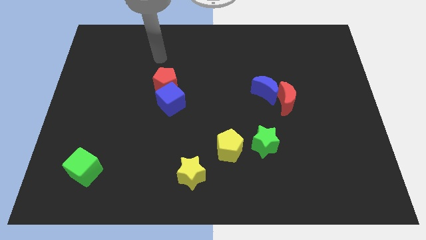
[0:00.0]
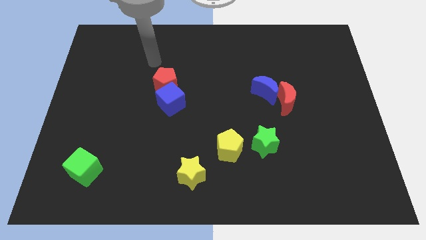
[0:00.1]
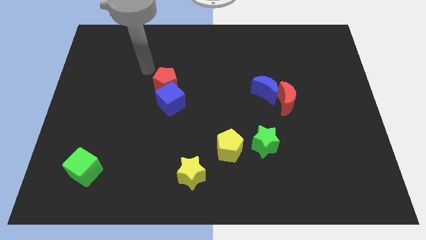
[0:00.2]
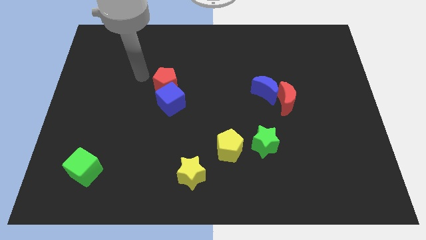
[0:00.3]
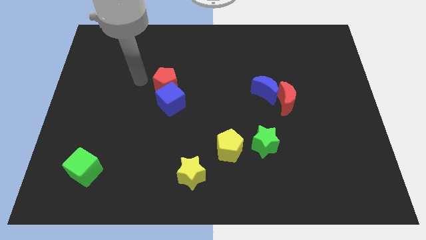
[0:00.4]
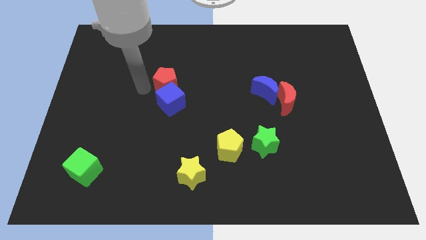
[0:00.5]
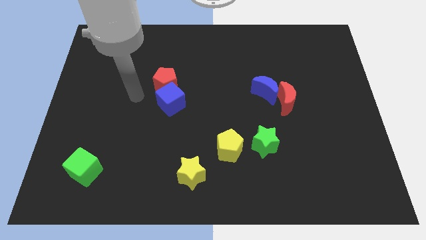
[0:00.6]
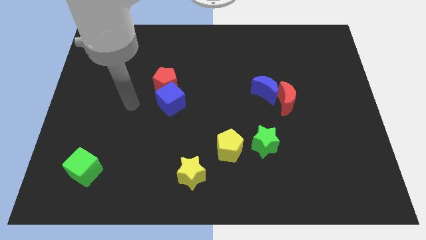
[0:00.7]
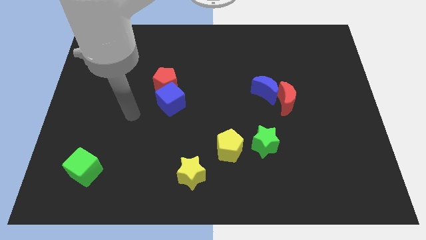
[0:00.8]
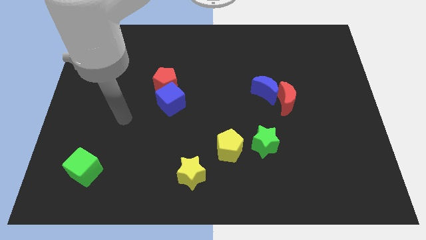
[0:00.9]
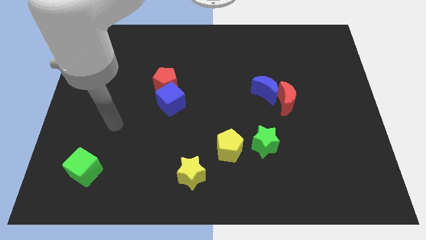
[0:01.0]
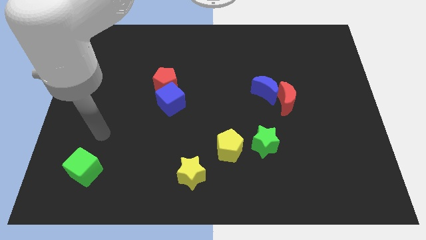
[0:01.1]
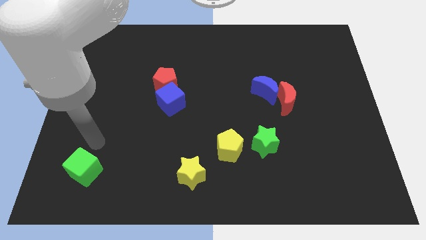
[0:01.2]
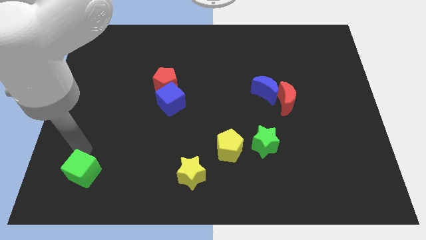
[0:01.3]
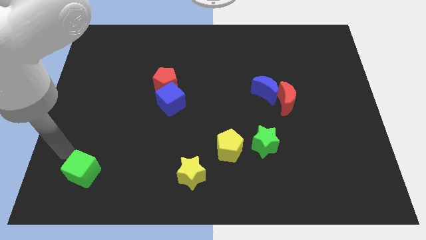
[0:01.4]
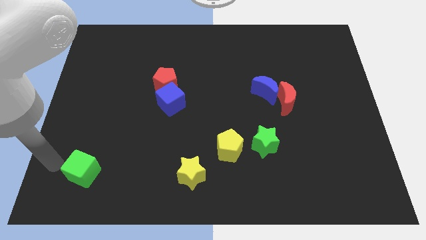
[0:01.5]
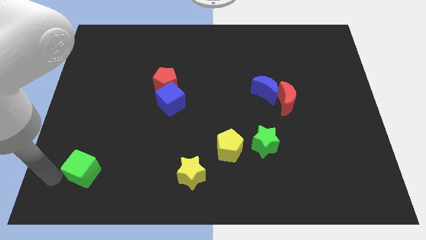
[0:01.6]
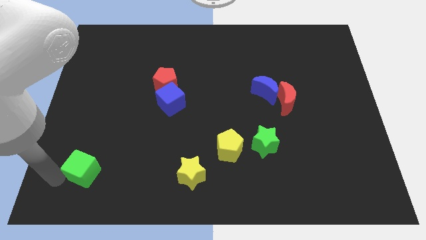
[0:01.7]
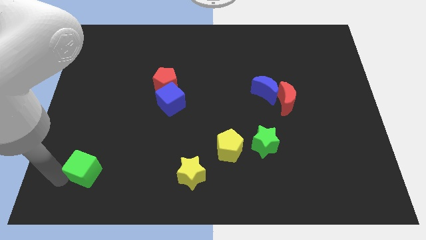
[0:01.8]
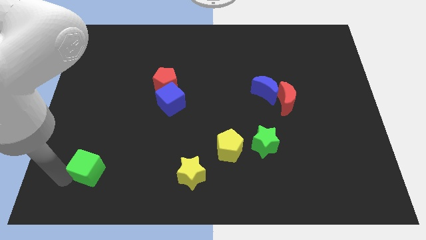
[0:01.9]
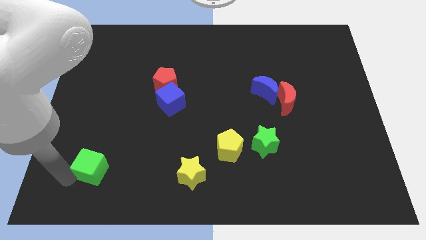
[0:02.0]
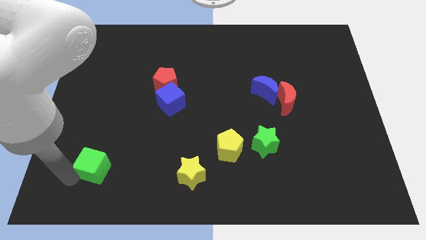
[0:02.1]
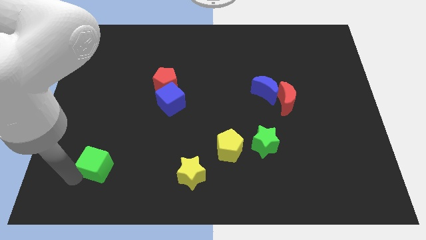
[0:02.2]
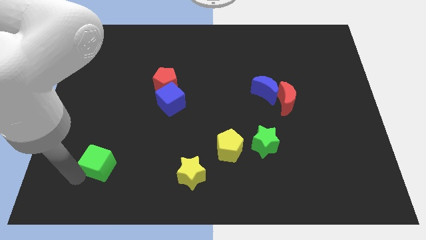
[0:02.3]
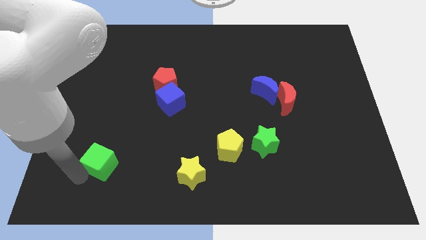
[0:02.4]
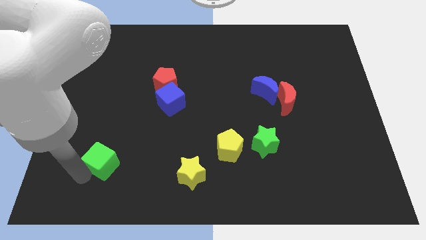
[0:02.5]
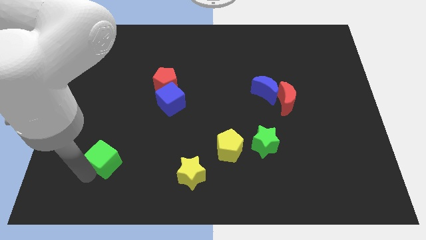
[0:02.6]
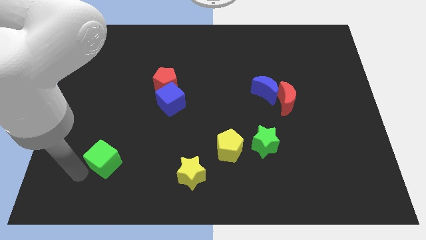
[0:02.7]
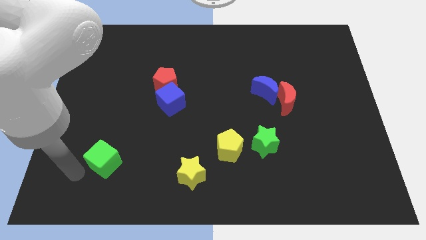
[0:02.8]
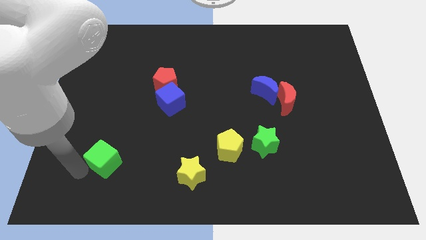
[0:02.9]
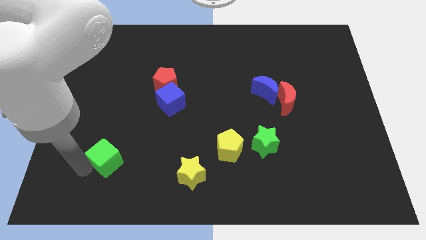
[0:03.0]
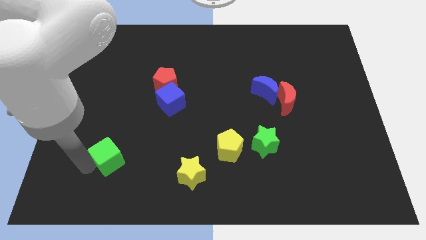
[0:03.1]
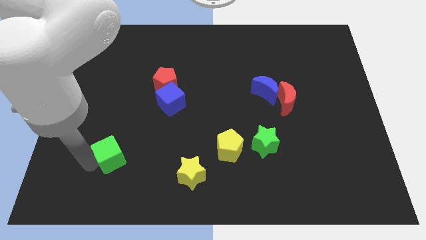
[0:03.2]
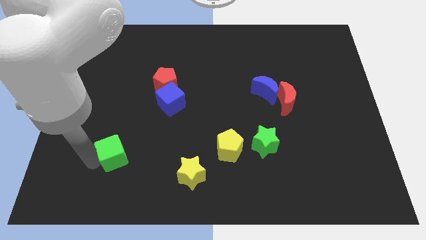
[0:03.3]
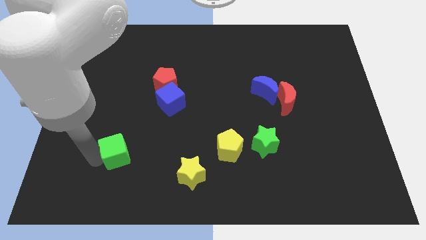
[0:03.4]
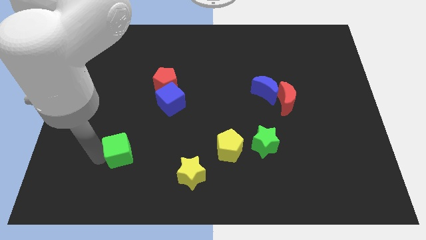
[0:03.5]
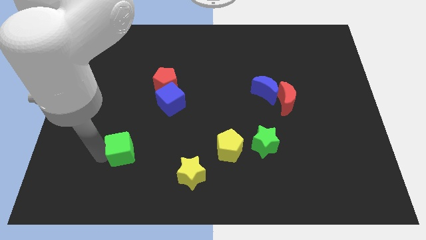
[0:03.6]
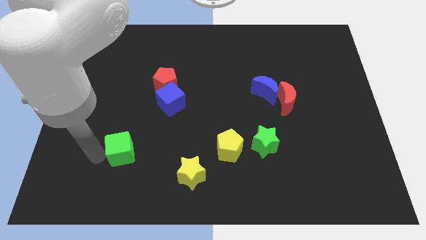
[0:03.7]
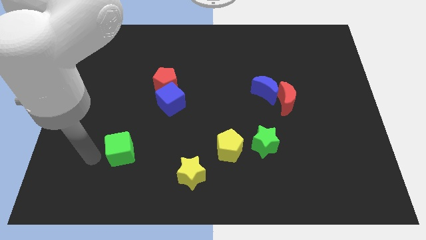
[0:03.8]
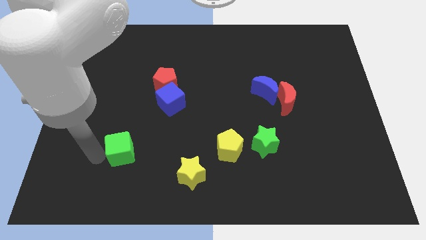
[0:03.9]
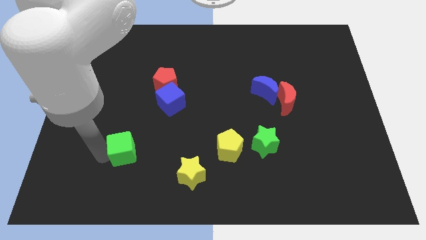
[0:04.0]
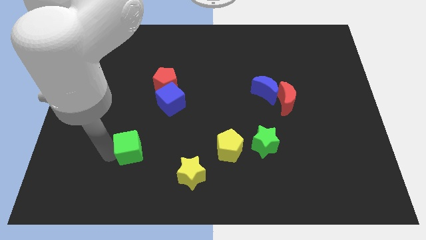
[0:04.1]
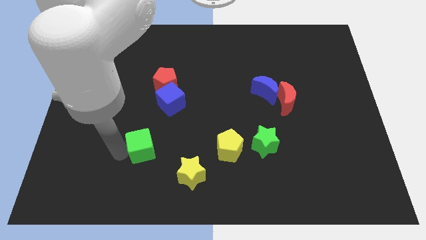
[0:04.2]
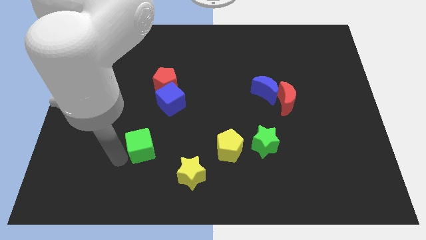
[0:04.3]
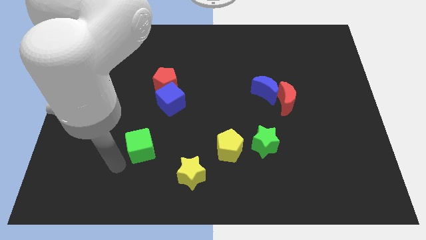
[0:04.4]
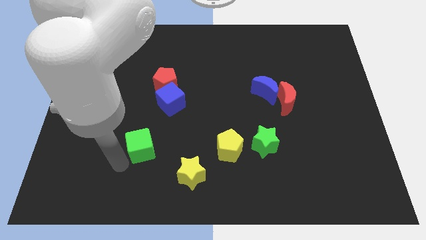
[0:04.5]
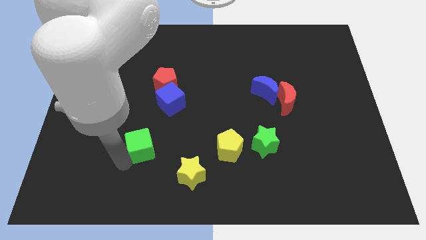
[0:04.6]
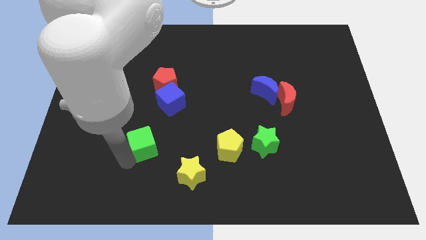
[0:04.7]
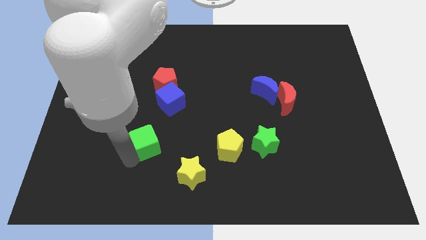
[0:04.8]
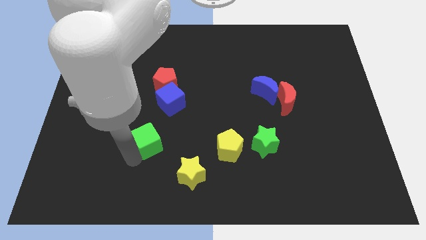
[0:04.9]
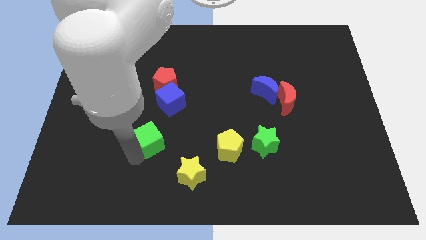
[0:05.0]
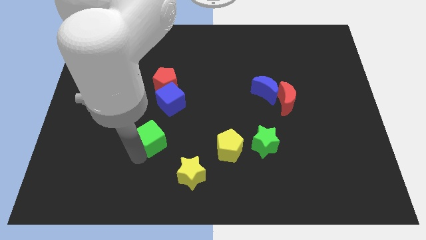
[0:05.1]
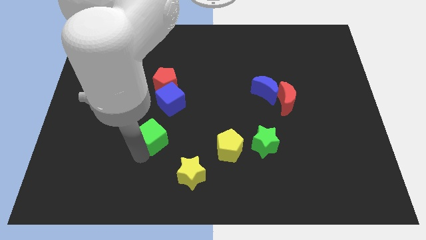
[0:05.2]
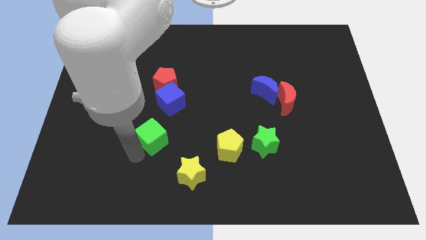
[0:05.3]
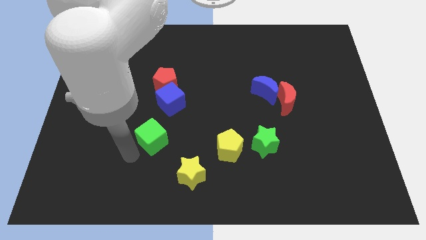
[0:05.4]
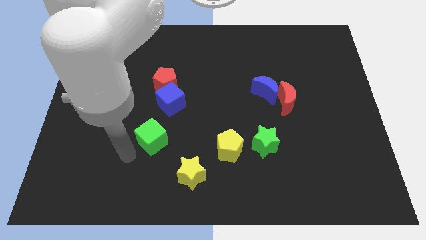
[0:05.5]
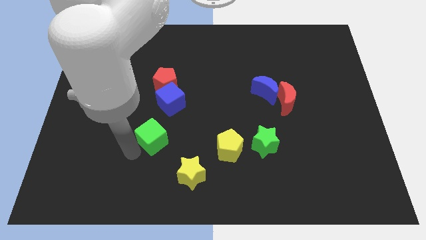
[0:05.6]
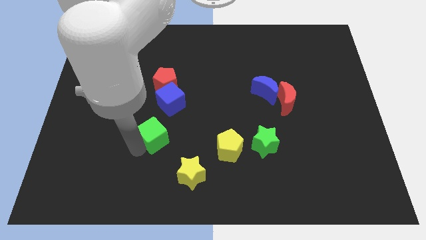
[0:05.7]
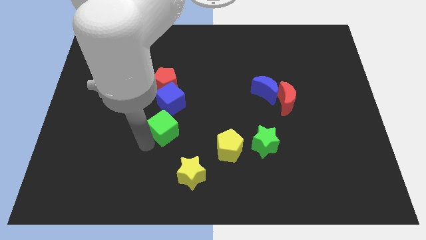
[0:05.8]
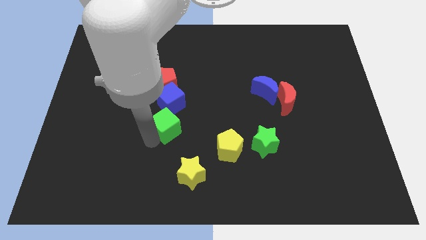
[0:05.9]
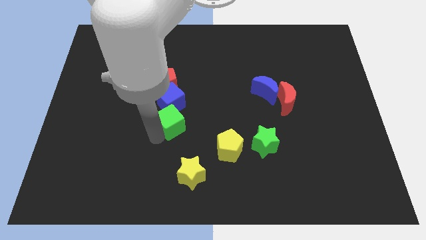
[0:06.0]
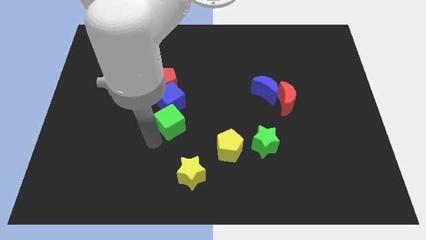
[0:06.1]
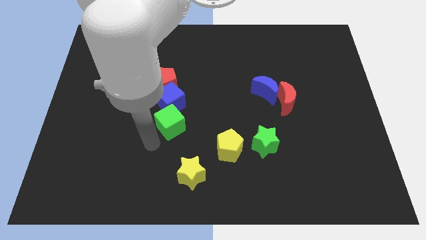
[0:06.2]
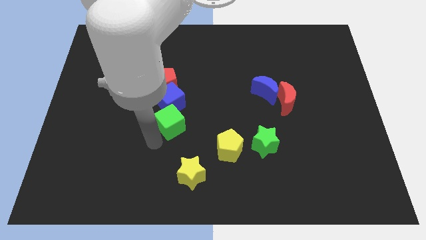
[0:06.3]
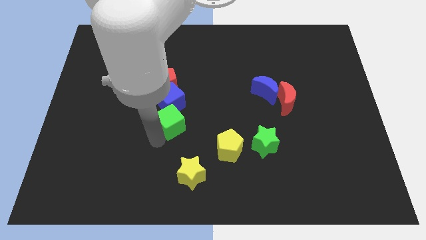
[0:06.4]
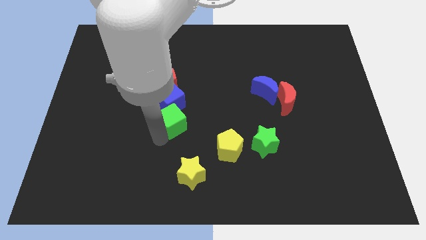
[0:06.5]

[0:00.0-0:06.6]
slide the green cube diagonally up and to the right

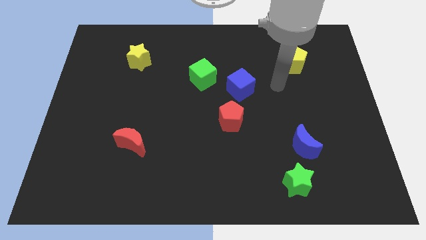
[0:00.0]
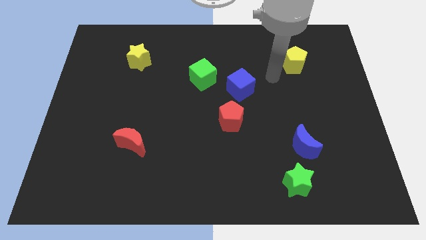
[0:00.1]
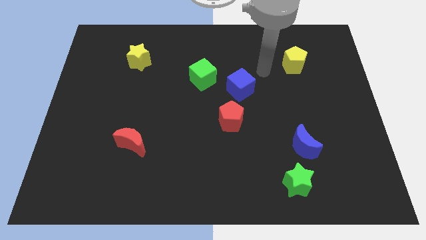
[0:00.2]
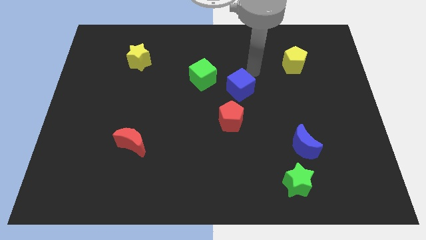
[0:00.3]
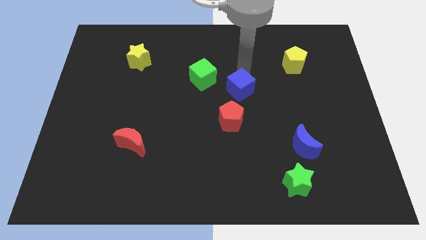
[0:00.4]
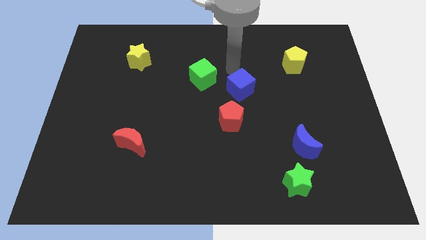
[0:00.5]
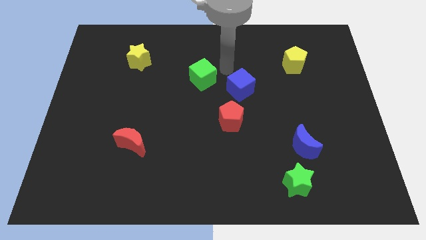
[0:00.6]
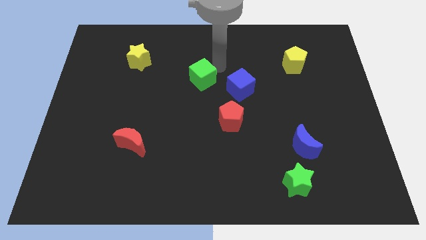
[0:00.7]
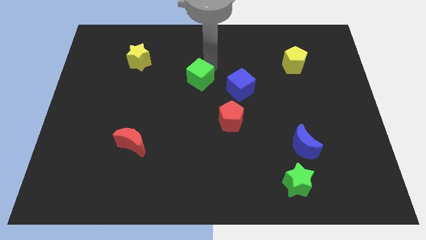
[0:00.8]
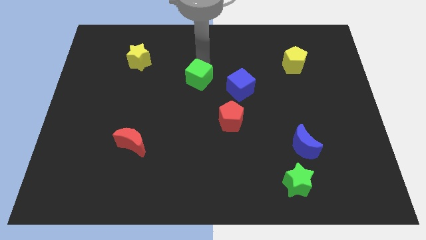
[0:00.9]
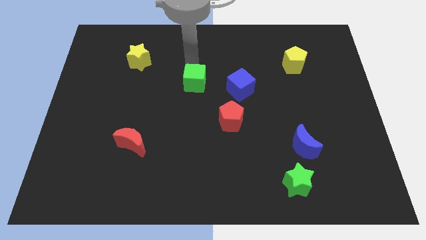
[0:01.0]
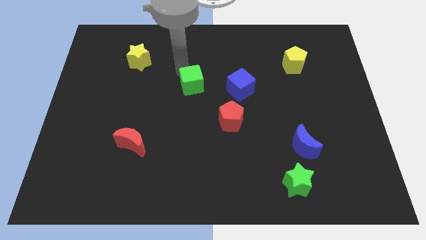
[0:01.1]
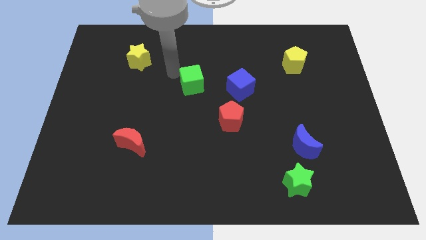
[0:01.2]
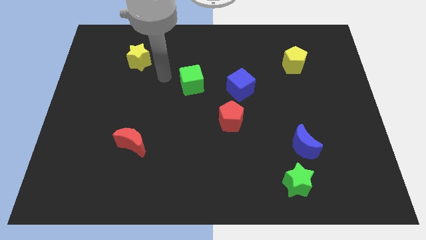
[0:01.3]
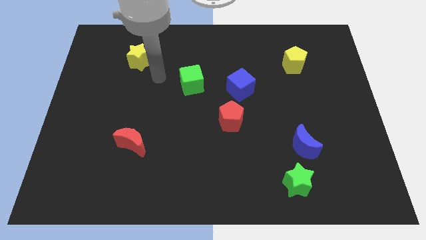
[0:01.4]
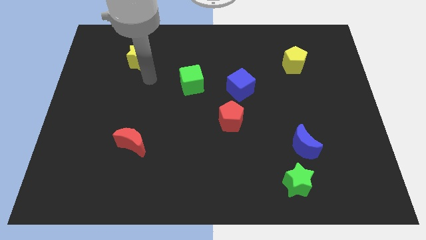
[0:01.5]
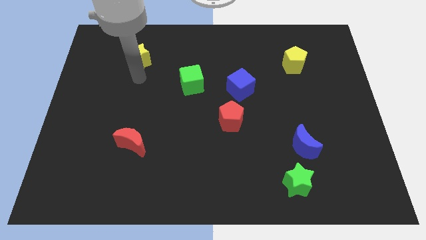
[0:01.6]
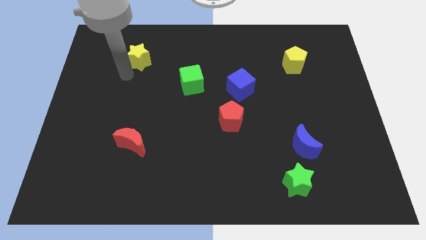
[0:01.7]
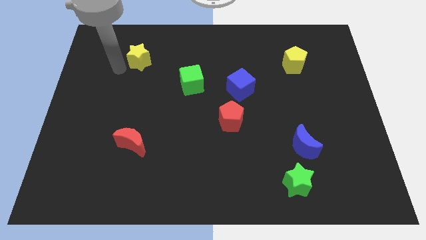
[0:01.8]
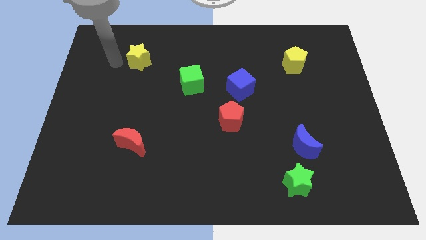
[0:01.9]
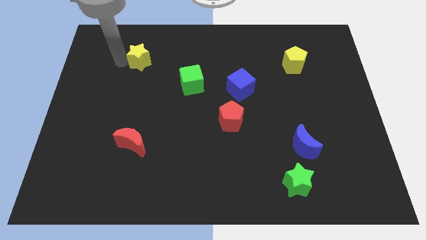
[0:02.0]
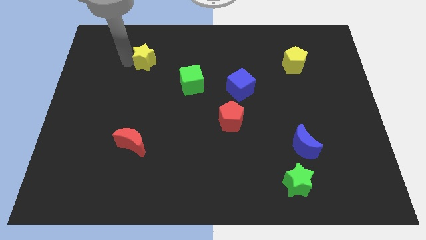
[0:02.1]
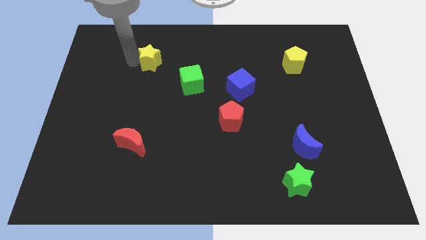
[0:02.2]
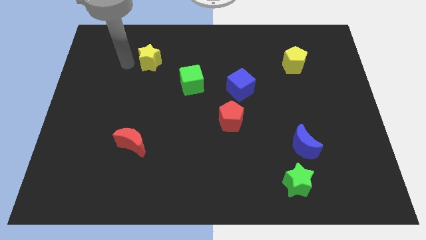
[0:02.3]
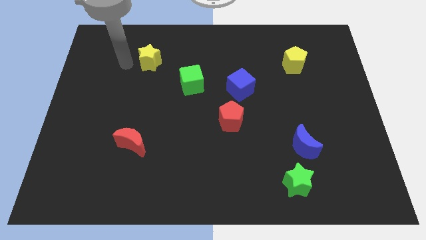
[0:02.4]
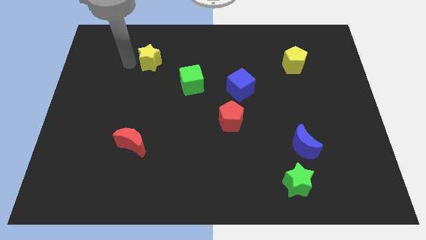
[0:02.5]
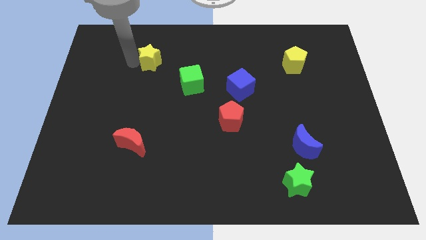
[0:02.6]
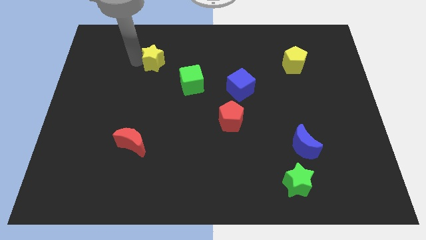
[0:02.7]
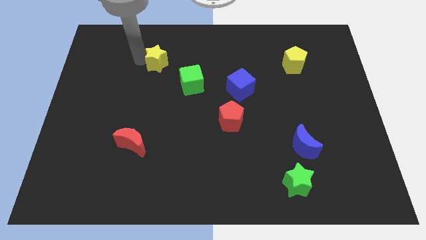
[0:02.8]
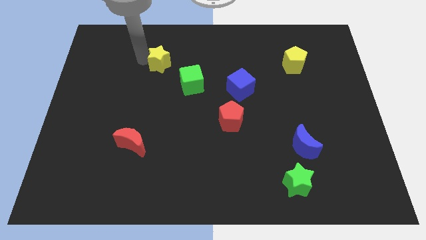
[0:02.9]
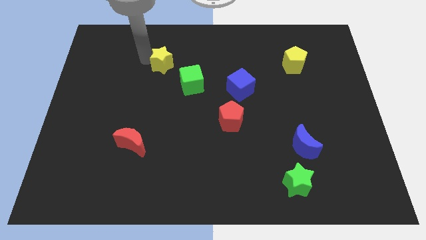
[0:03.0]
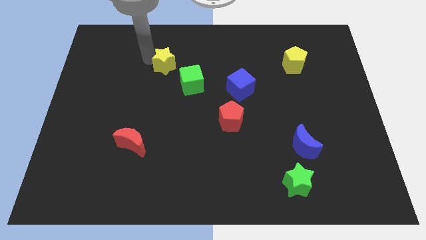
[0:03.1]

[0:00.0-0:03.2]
slide the yellow star a bit to the right
